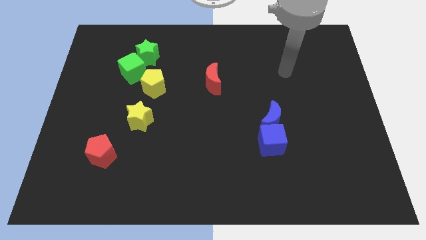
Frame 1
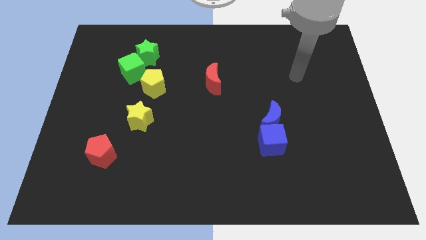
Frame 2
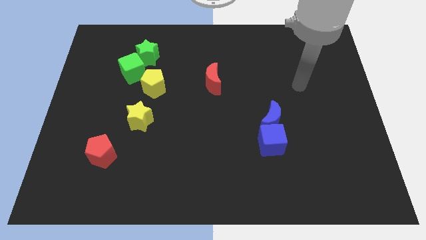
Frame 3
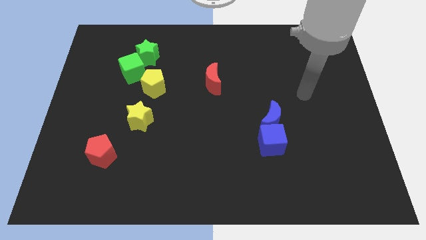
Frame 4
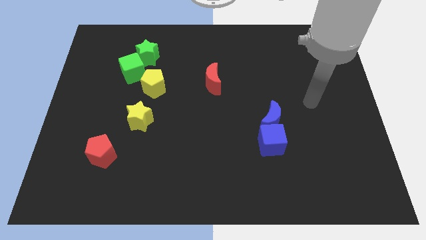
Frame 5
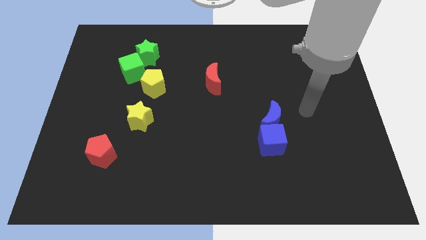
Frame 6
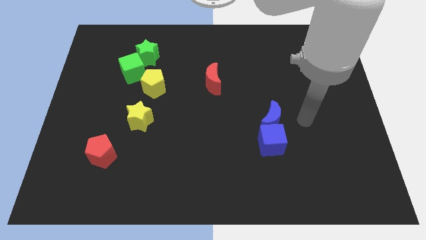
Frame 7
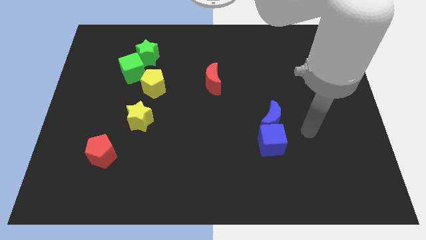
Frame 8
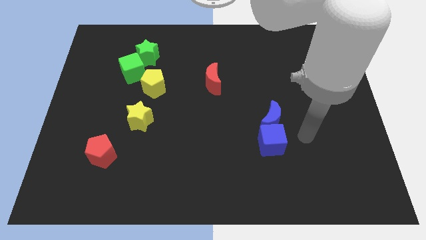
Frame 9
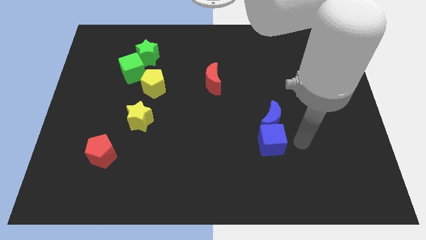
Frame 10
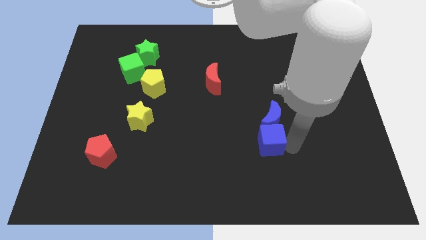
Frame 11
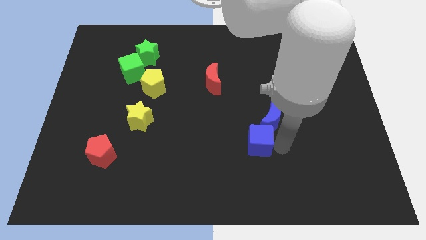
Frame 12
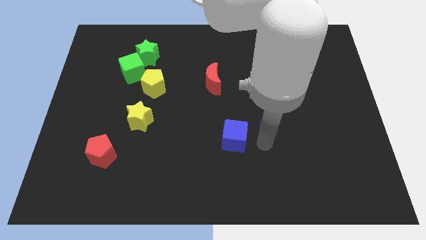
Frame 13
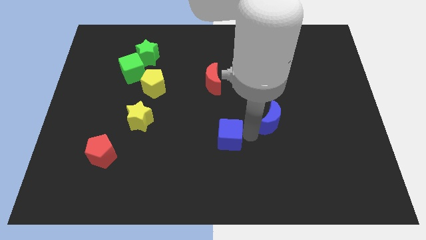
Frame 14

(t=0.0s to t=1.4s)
pull the blue moon apart from the blue cube

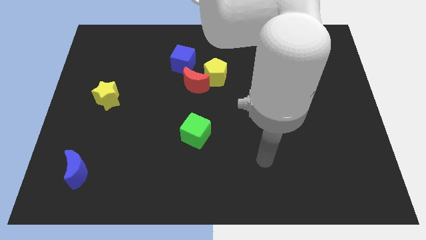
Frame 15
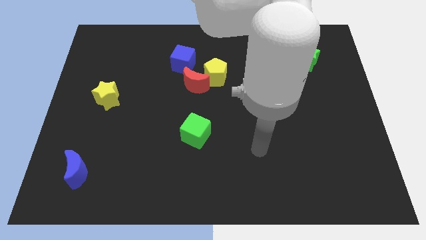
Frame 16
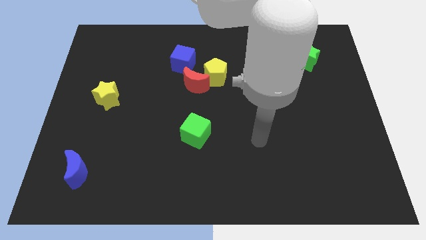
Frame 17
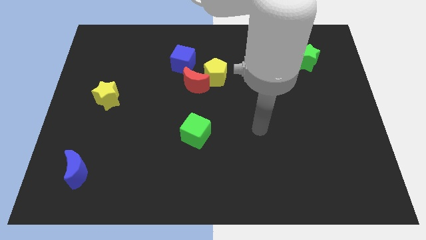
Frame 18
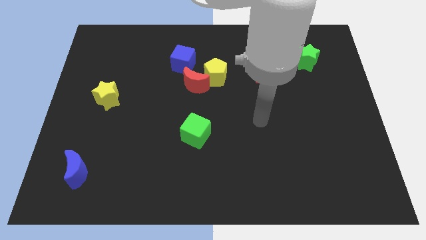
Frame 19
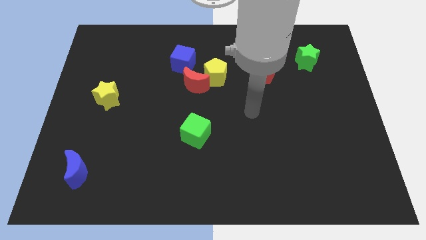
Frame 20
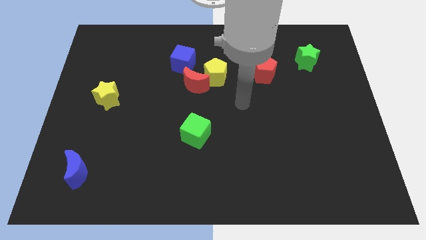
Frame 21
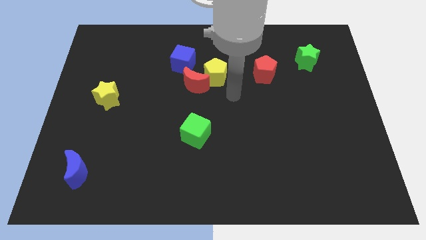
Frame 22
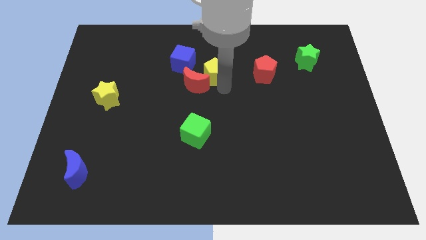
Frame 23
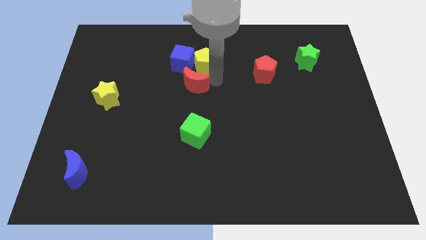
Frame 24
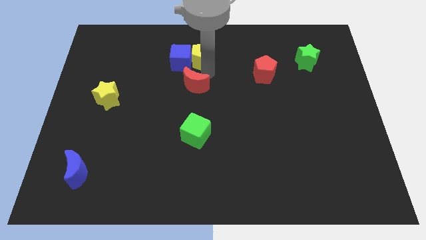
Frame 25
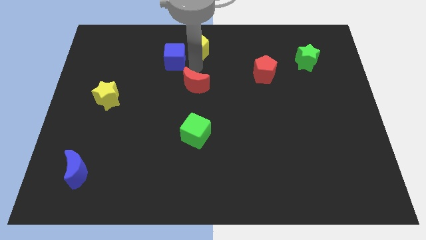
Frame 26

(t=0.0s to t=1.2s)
move the red moon away from the yellow pentagon and blue cube

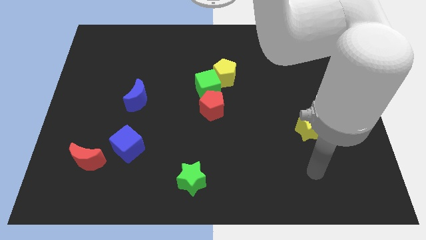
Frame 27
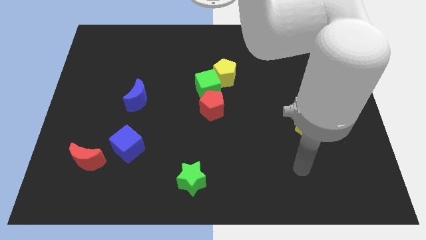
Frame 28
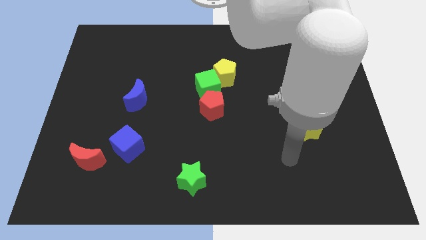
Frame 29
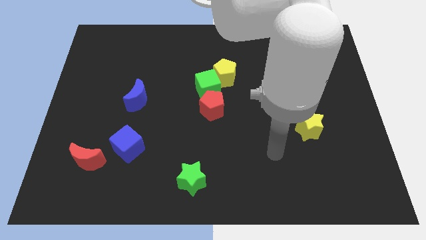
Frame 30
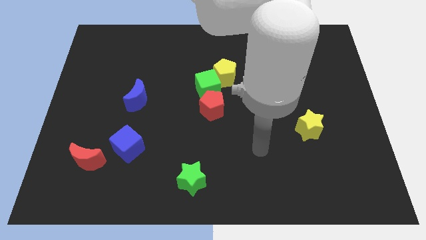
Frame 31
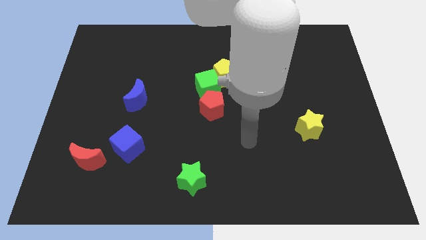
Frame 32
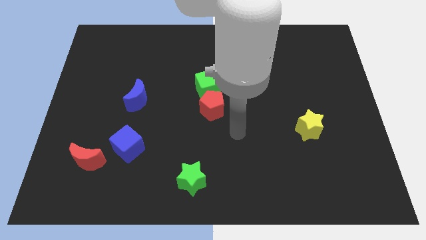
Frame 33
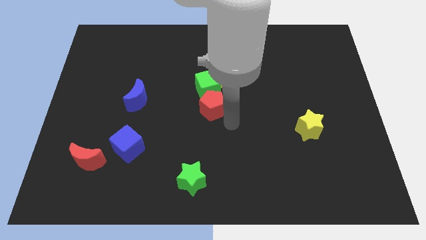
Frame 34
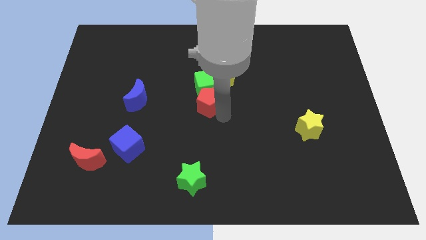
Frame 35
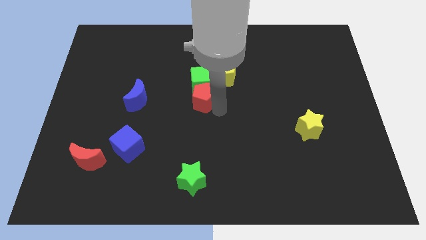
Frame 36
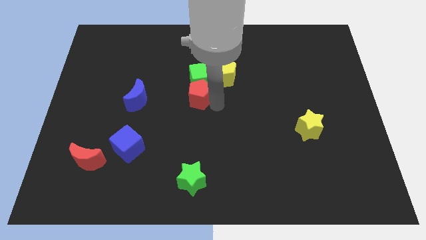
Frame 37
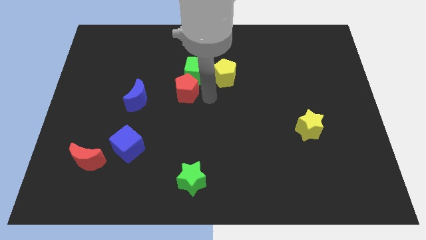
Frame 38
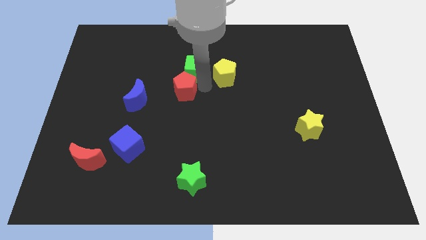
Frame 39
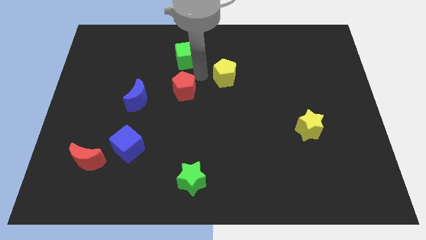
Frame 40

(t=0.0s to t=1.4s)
move the yellow pentagon away from the green cube

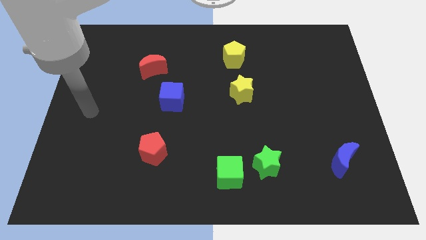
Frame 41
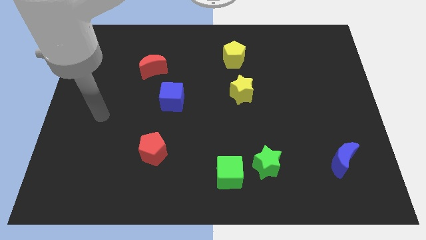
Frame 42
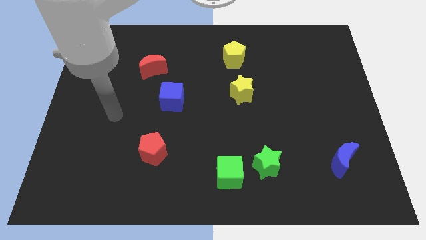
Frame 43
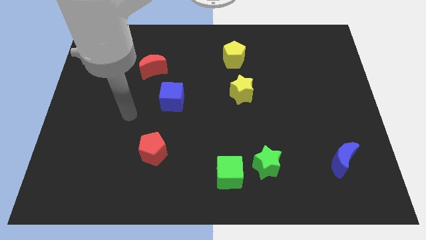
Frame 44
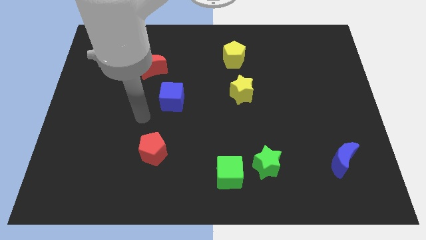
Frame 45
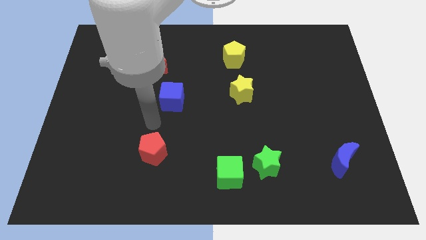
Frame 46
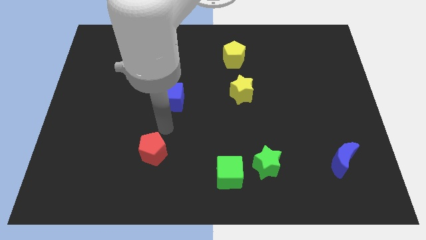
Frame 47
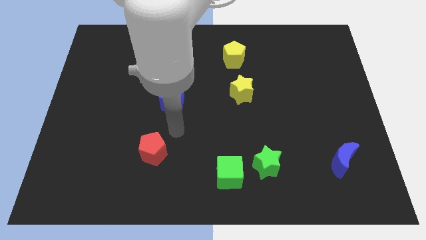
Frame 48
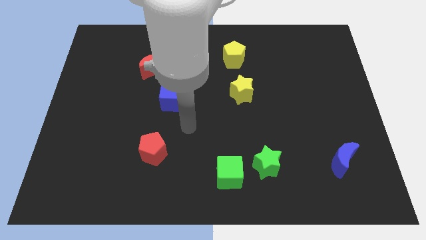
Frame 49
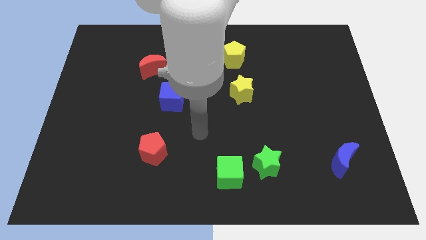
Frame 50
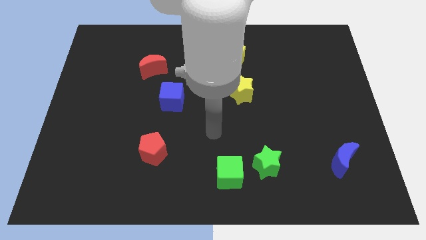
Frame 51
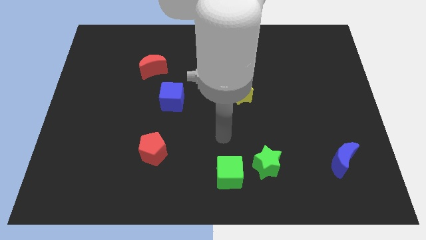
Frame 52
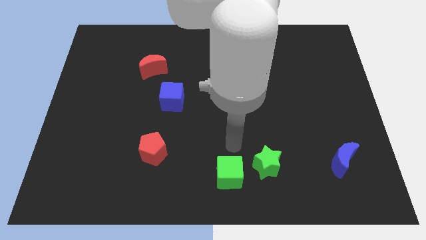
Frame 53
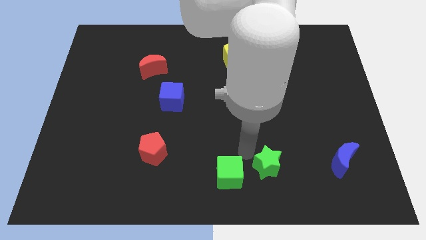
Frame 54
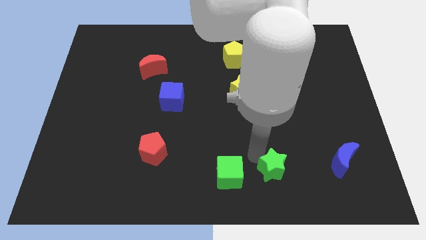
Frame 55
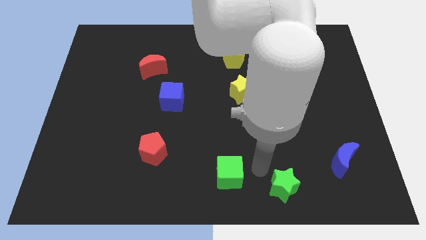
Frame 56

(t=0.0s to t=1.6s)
separate the green cube from the green star

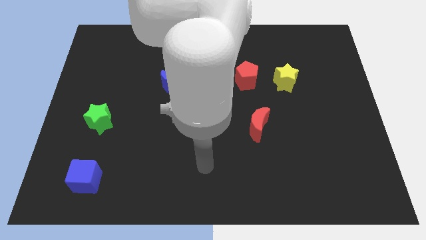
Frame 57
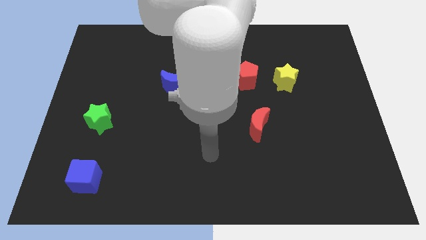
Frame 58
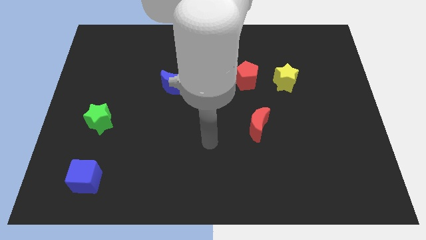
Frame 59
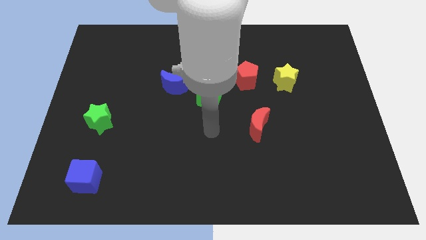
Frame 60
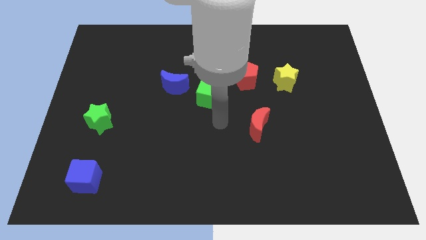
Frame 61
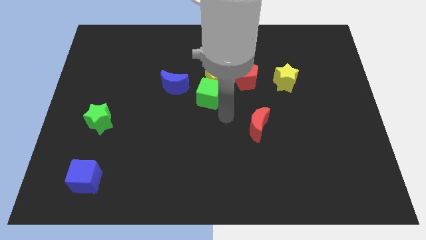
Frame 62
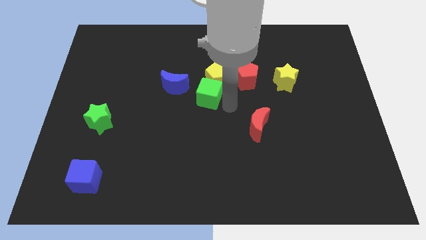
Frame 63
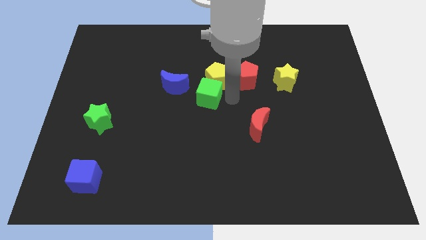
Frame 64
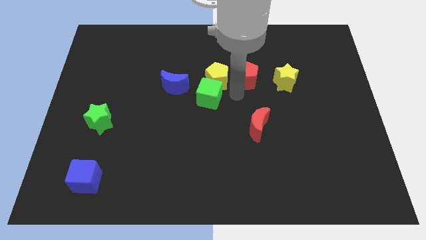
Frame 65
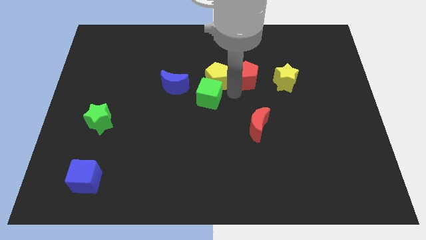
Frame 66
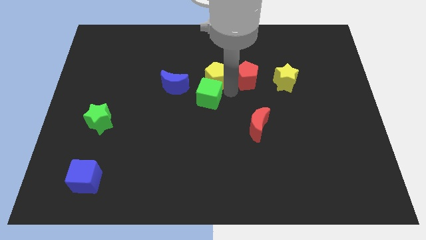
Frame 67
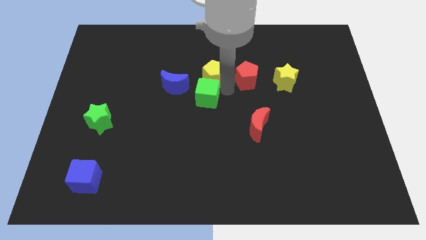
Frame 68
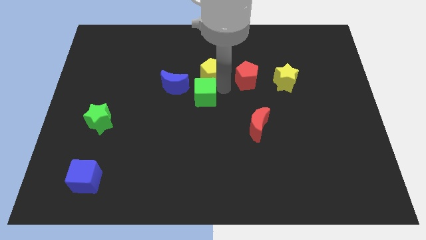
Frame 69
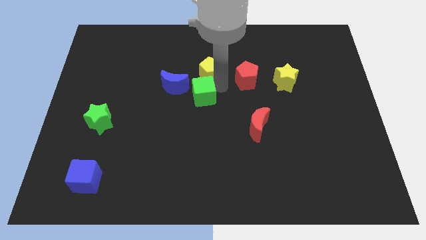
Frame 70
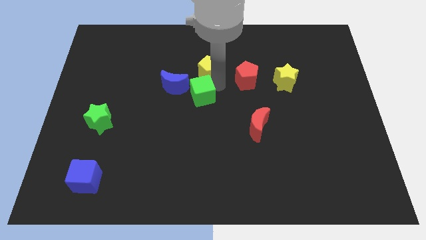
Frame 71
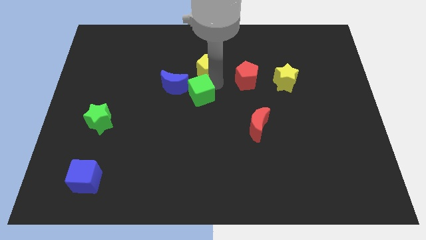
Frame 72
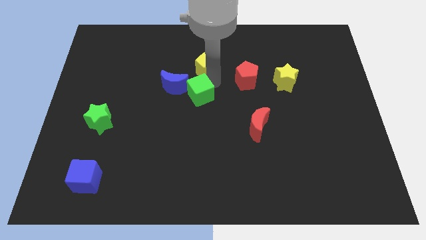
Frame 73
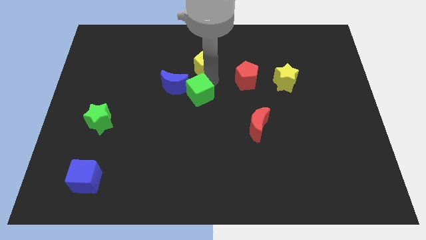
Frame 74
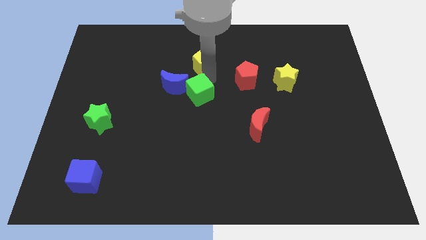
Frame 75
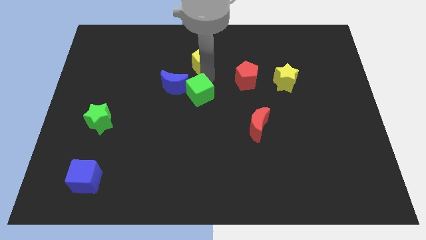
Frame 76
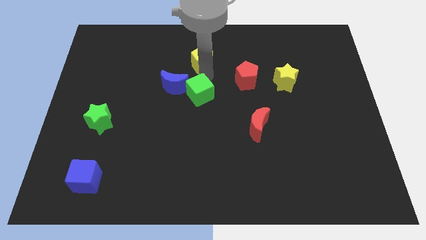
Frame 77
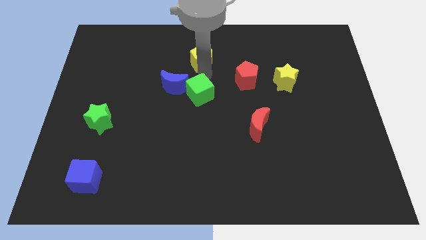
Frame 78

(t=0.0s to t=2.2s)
pull the yellow pentagon apart from the green cube and red pentagon

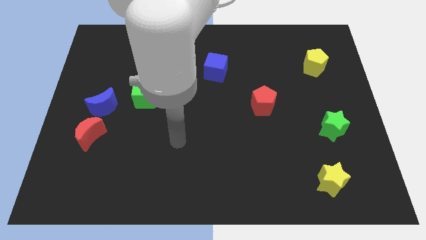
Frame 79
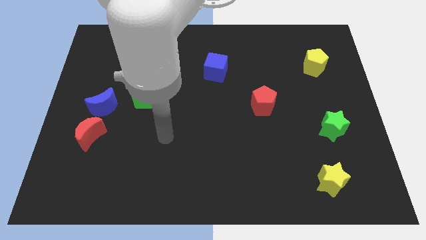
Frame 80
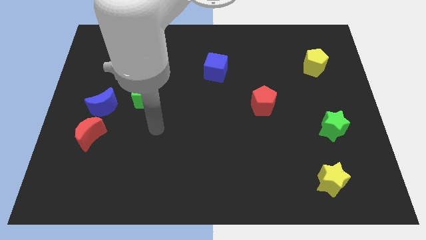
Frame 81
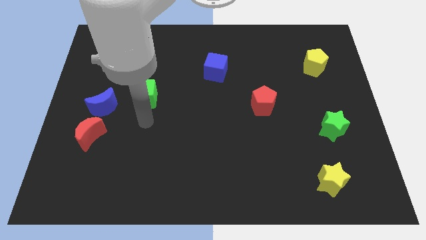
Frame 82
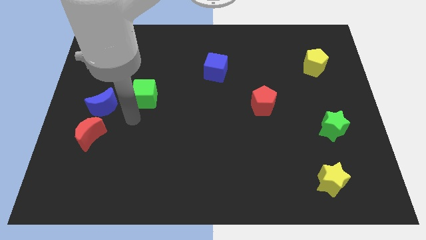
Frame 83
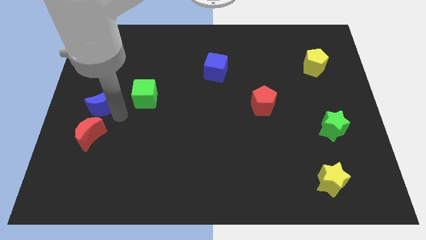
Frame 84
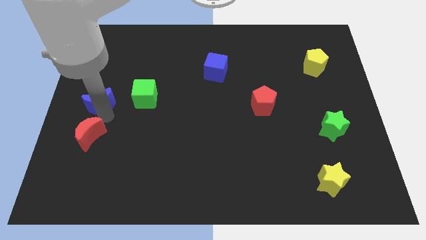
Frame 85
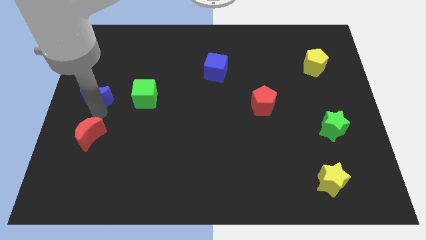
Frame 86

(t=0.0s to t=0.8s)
pull the red moon apart from the blue moon

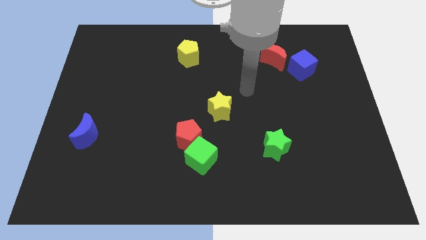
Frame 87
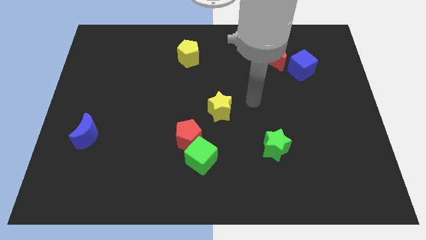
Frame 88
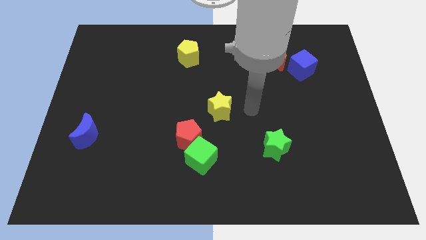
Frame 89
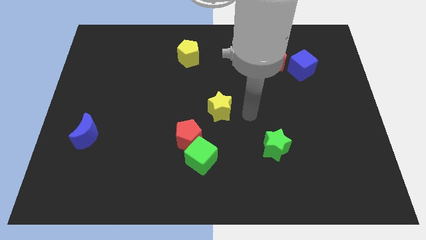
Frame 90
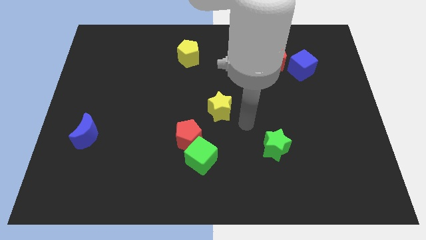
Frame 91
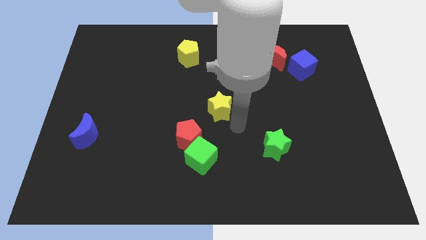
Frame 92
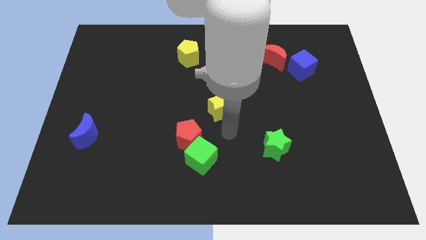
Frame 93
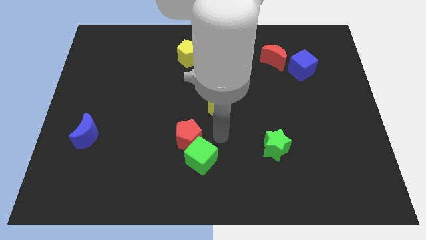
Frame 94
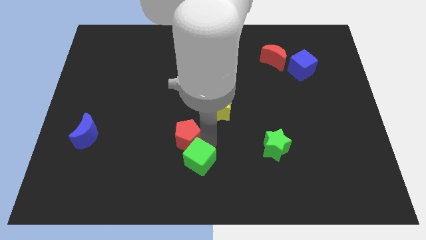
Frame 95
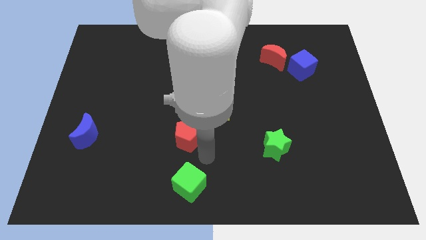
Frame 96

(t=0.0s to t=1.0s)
pull the red pentagon apart from the green cube
